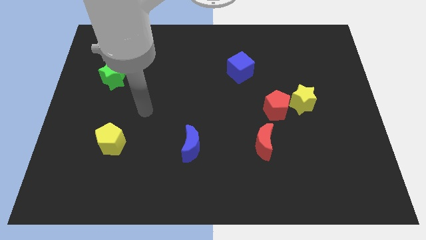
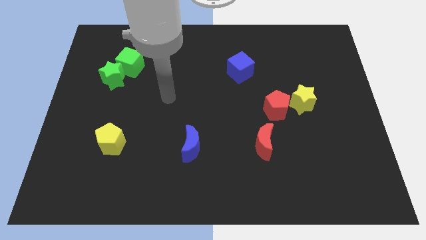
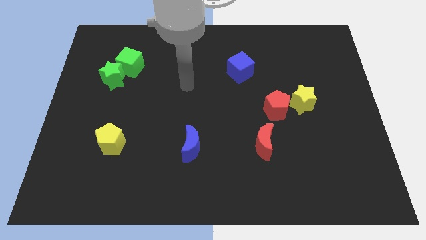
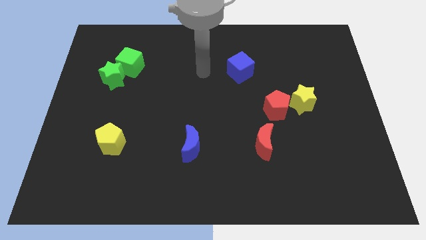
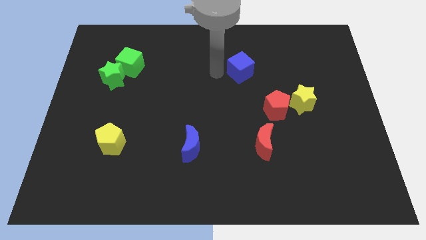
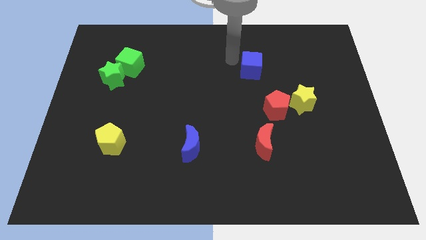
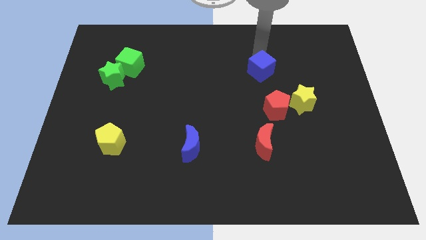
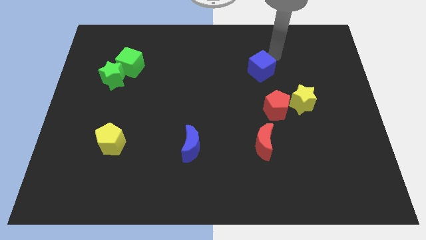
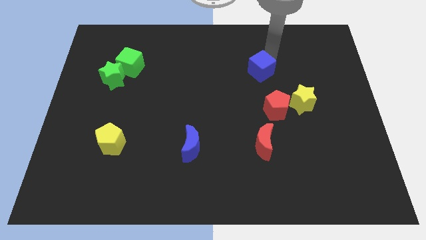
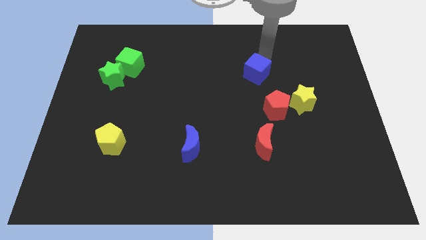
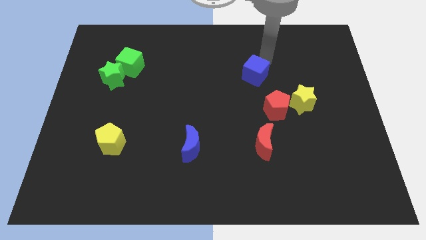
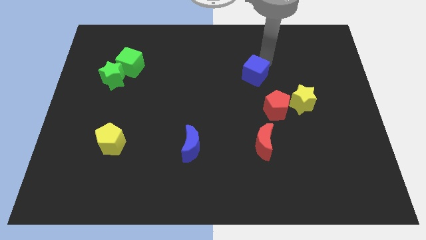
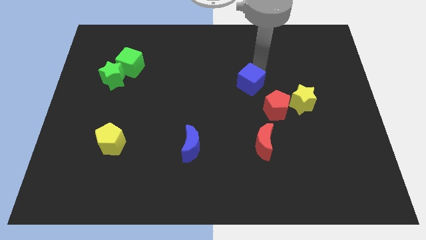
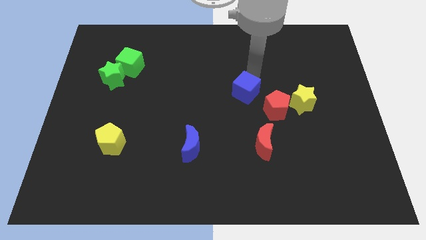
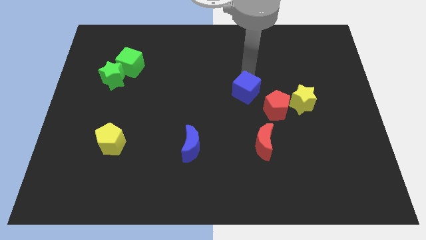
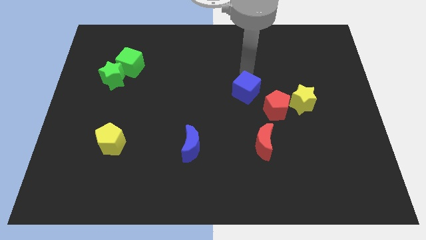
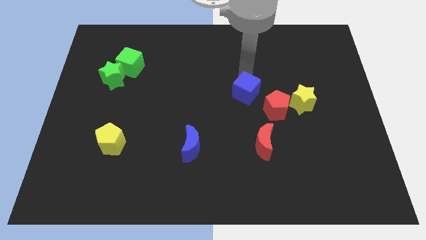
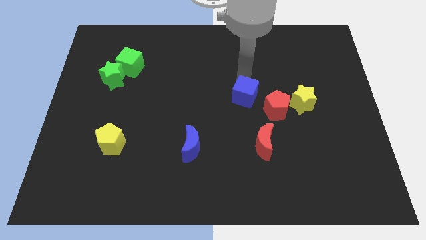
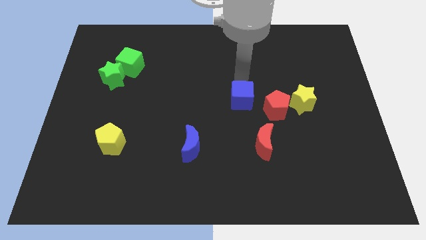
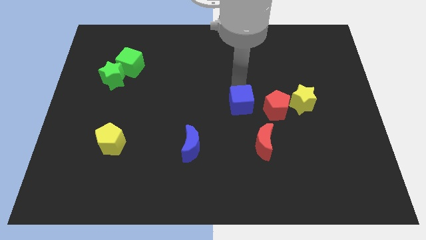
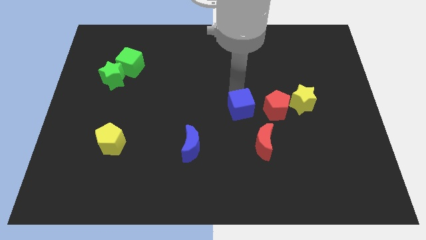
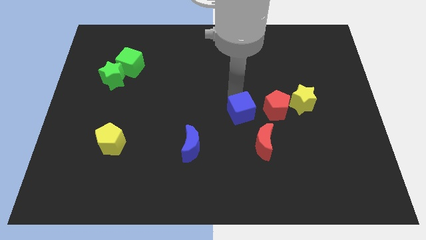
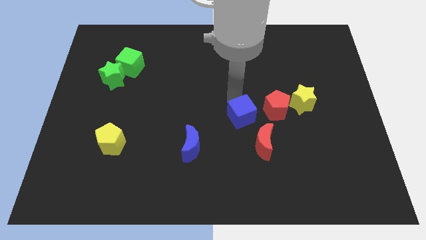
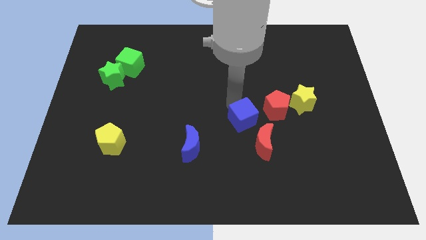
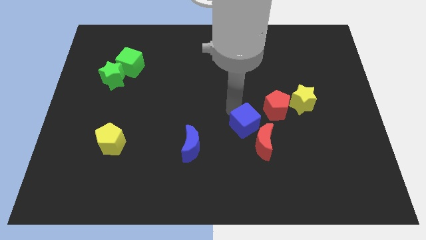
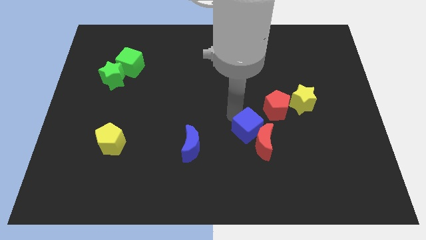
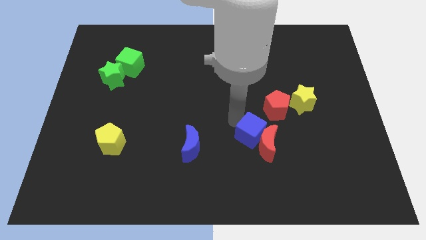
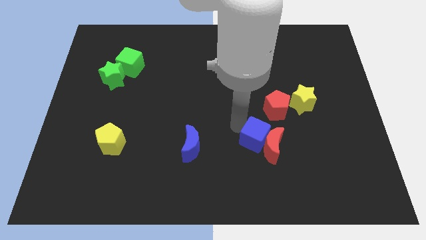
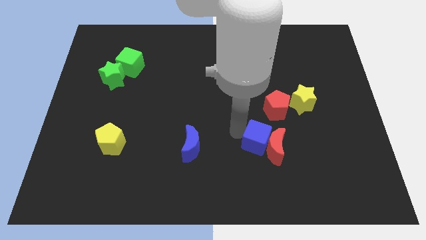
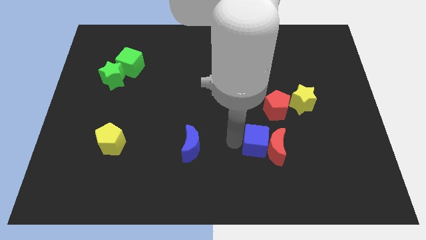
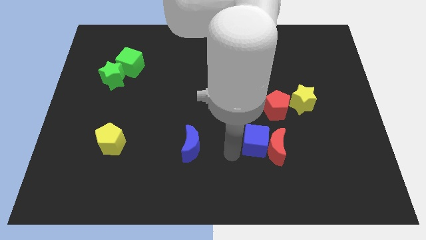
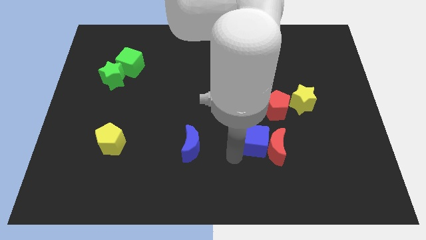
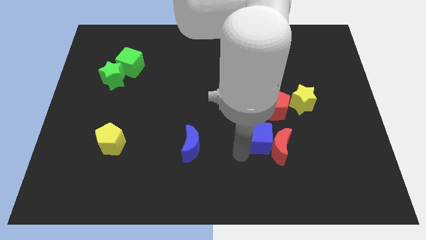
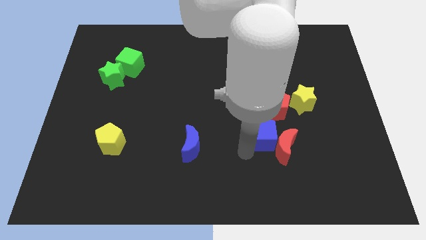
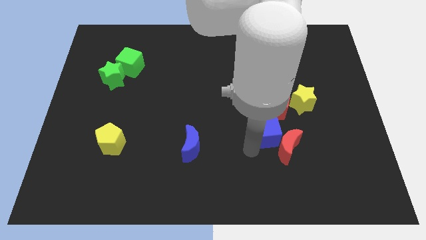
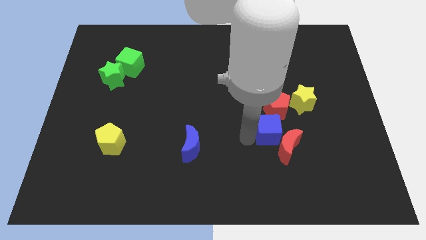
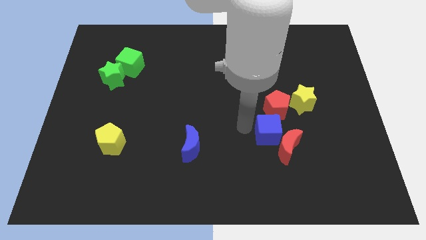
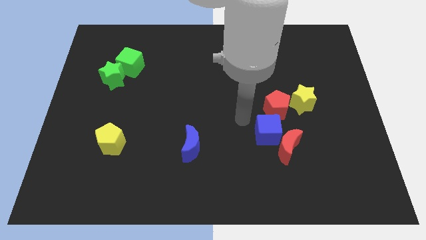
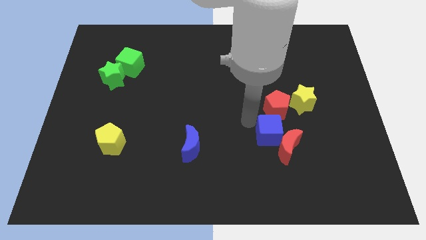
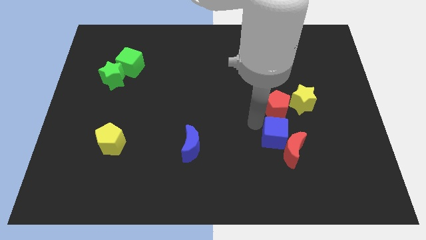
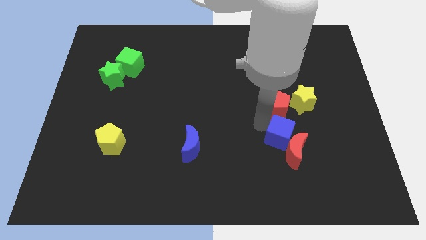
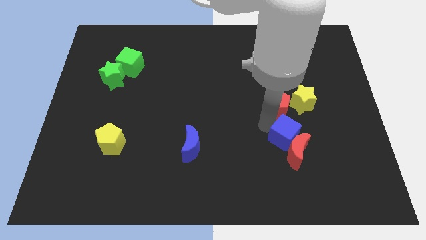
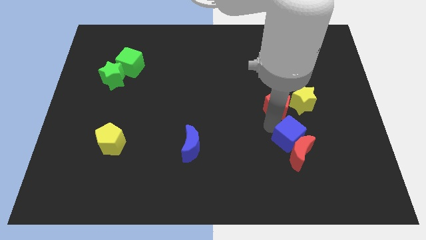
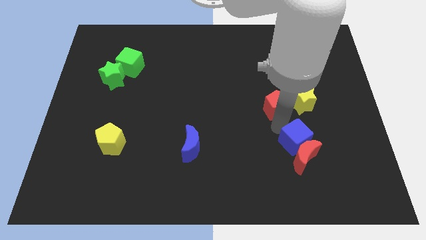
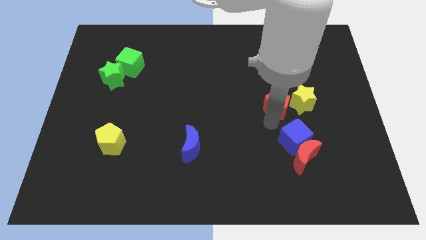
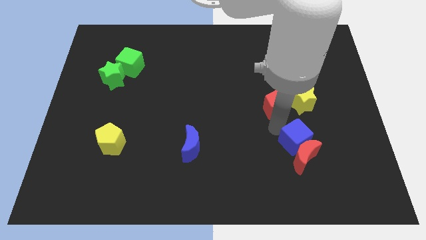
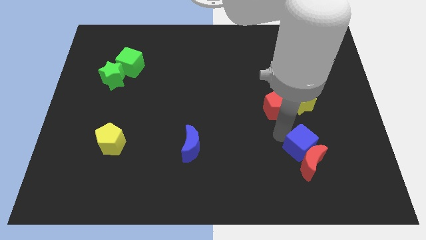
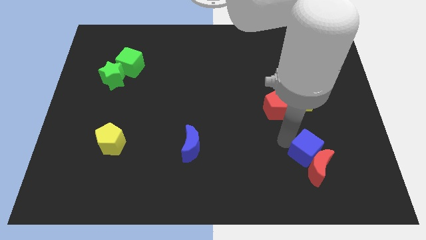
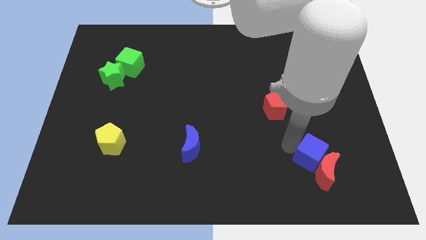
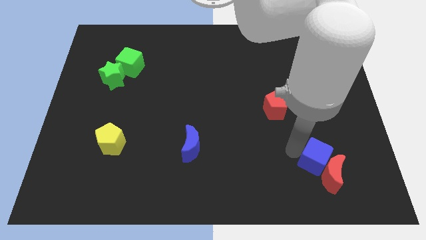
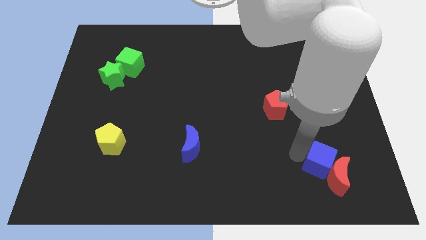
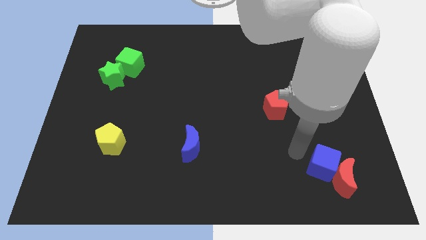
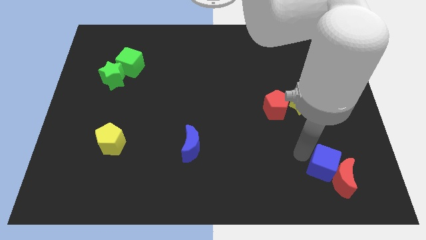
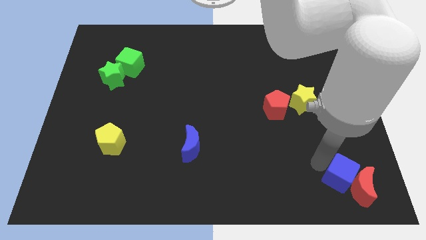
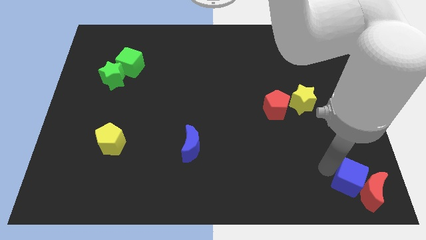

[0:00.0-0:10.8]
move the blue cube to the bottom right of the board

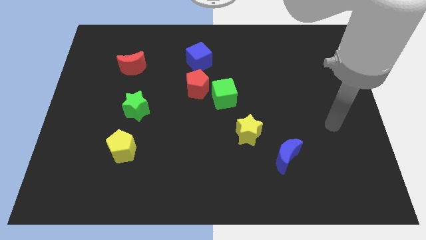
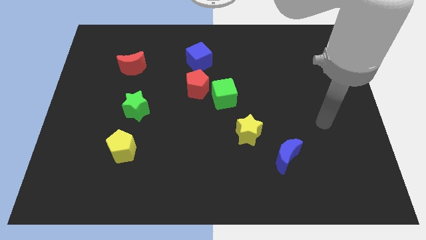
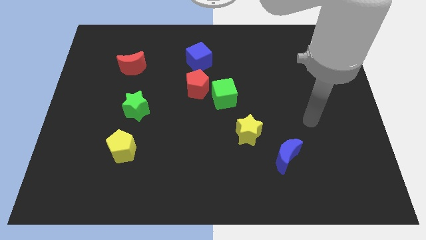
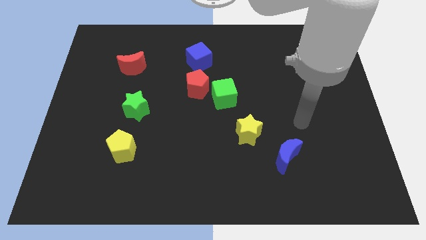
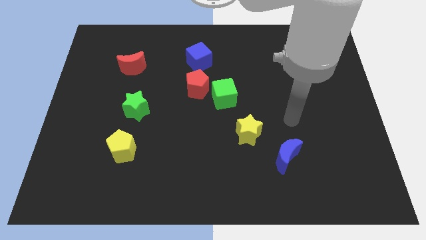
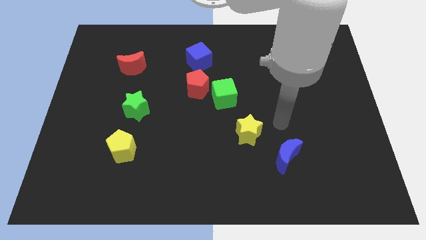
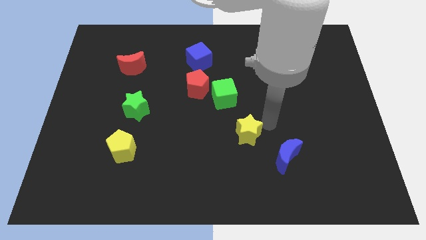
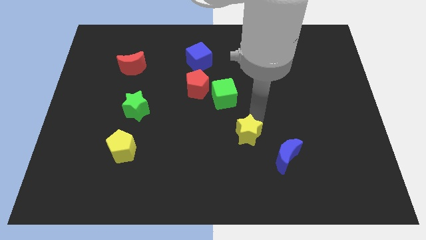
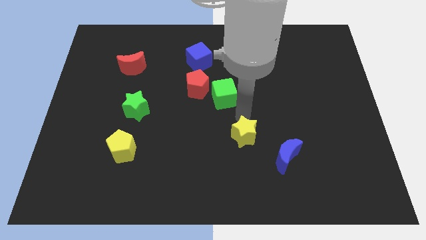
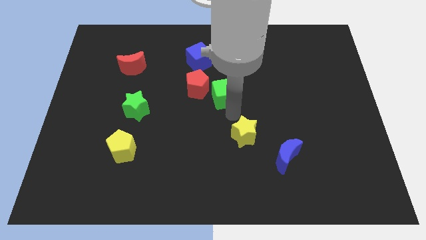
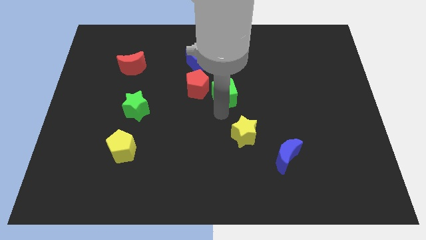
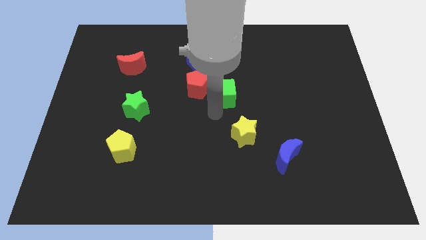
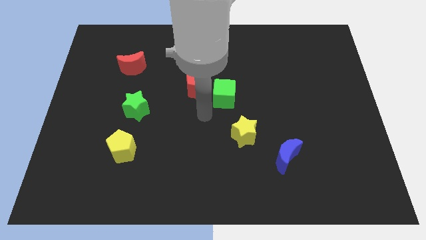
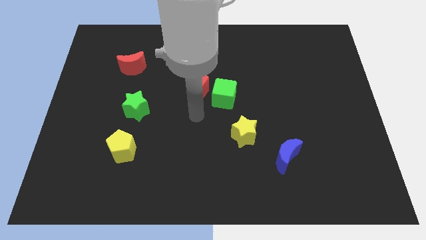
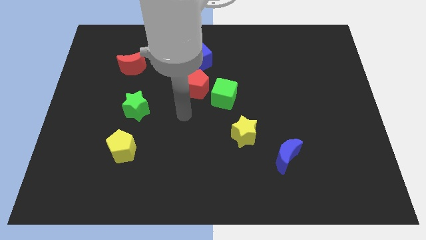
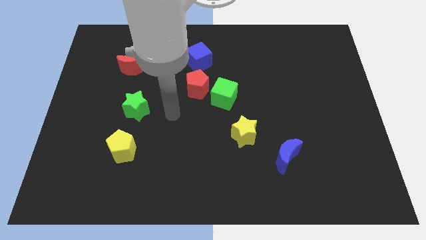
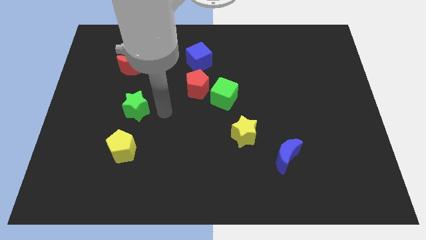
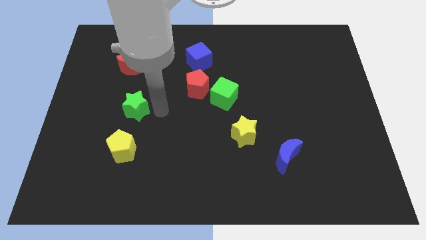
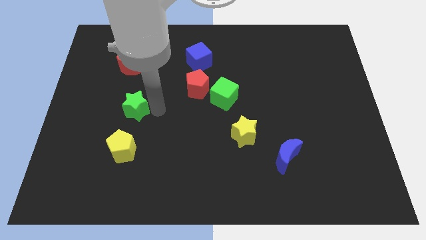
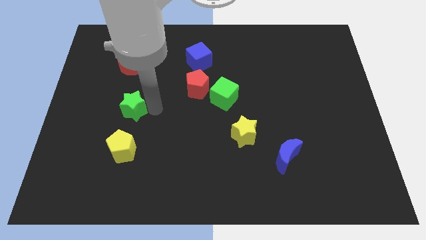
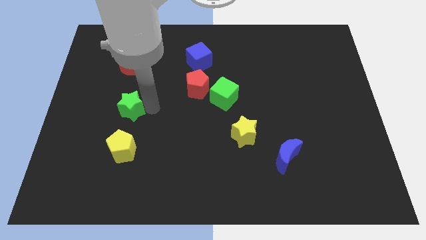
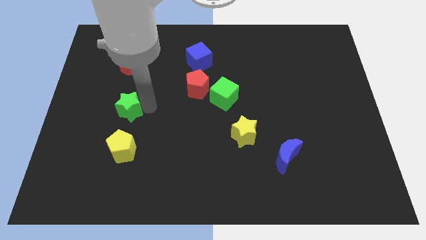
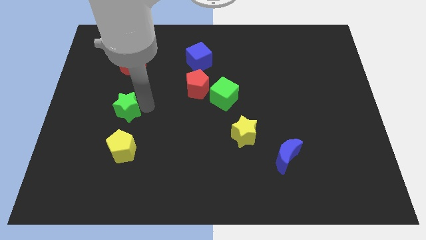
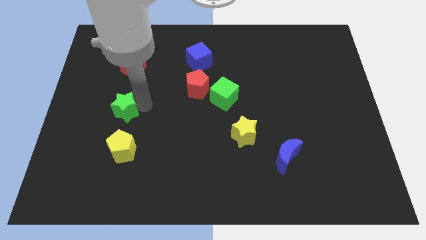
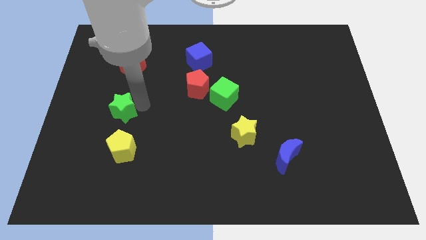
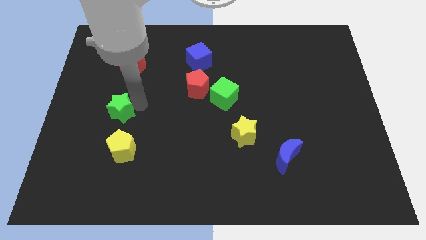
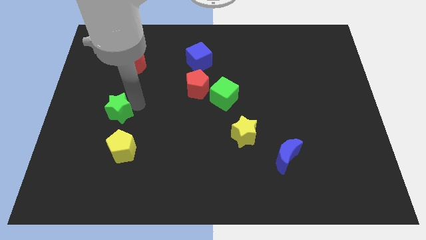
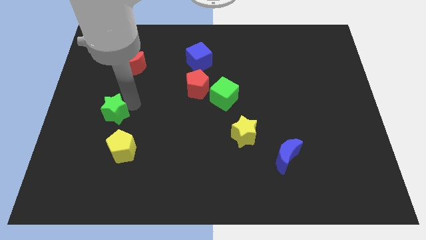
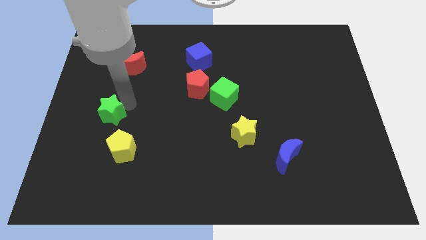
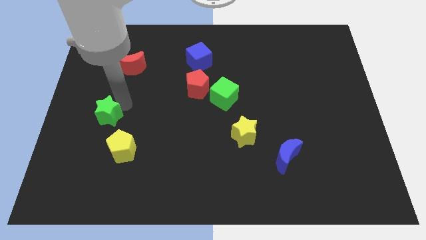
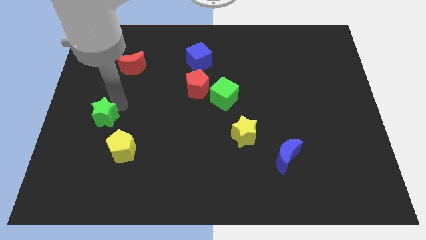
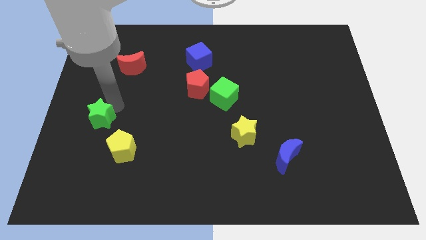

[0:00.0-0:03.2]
move the green star to the left side of the board
